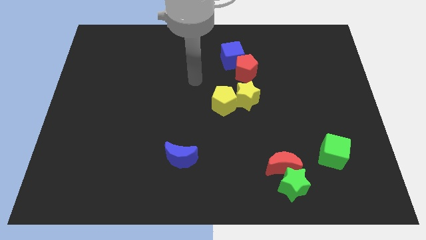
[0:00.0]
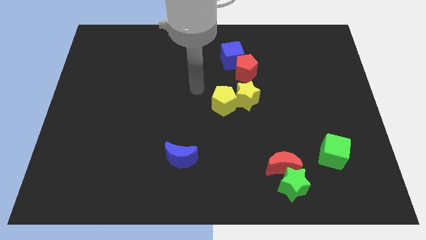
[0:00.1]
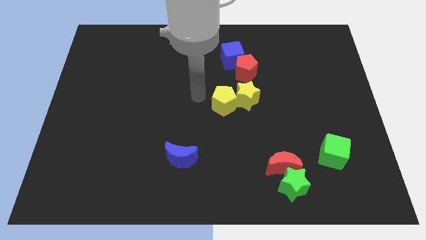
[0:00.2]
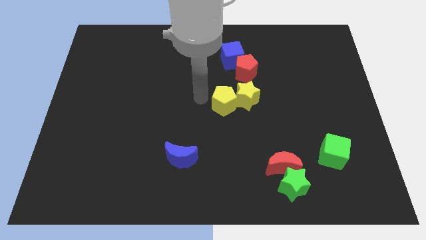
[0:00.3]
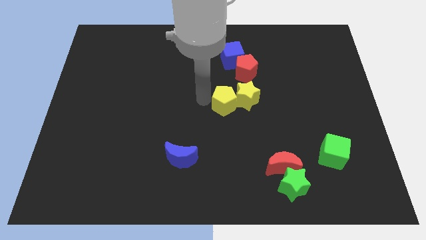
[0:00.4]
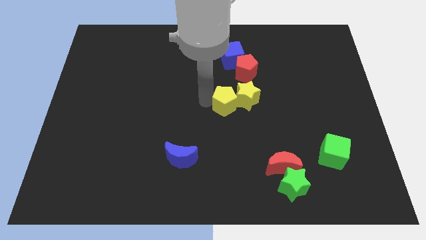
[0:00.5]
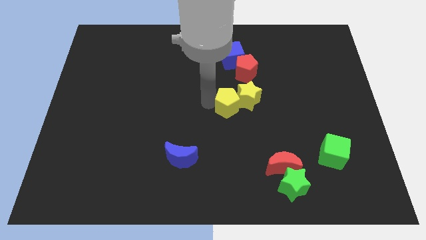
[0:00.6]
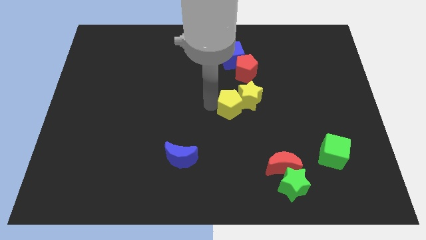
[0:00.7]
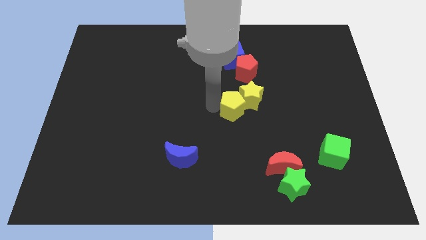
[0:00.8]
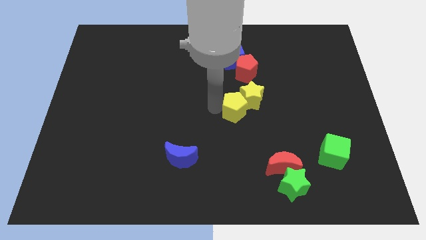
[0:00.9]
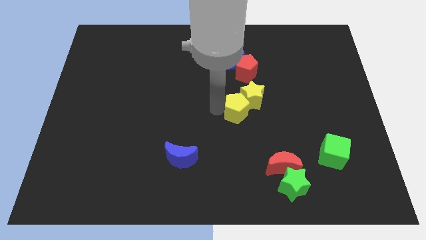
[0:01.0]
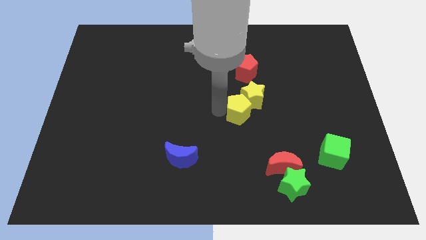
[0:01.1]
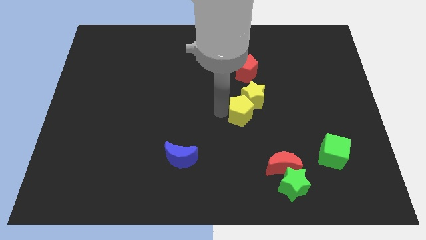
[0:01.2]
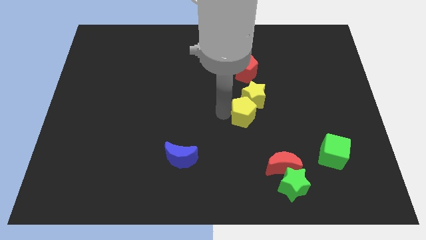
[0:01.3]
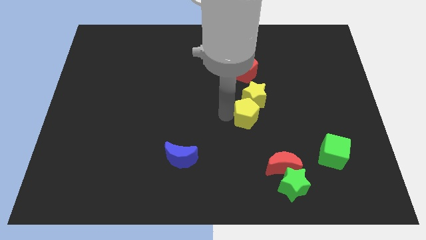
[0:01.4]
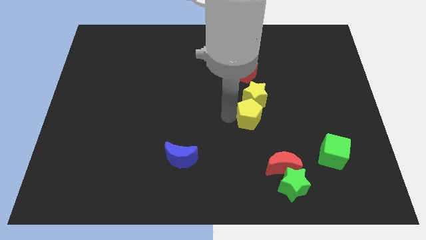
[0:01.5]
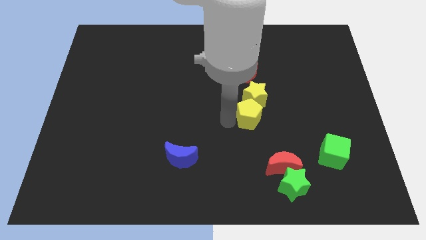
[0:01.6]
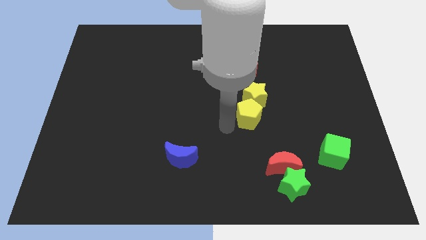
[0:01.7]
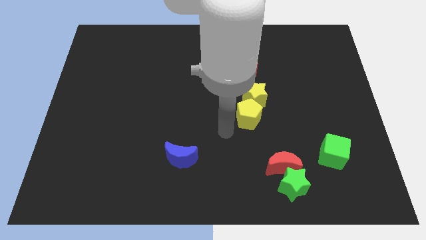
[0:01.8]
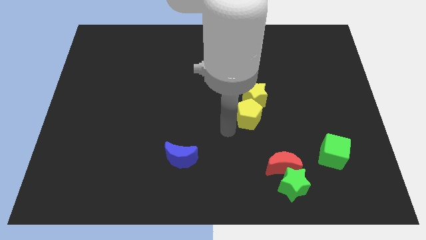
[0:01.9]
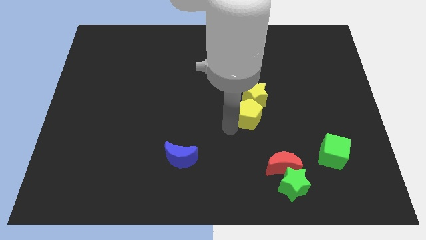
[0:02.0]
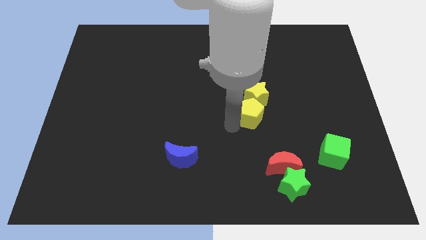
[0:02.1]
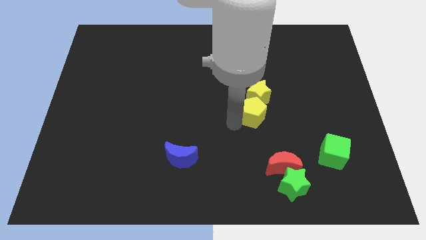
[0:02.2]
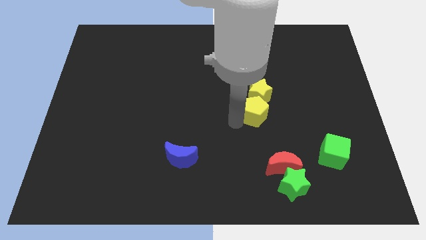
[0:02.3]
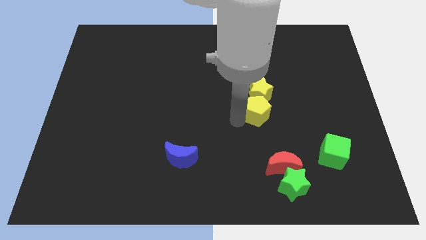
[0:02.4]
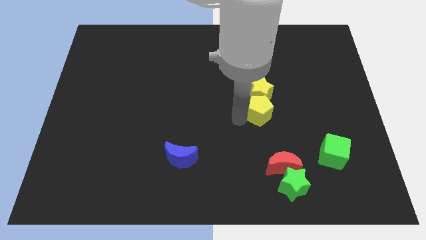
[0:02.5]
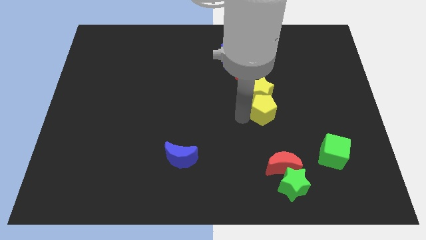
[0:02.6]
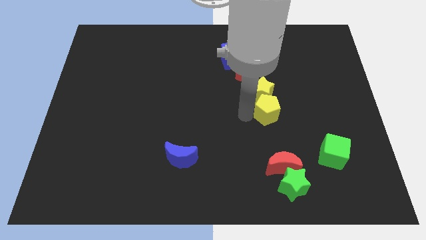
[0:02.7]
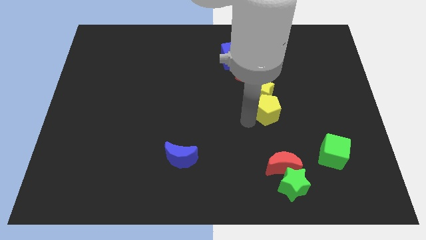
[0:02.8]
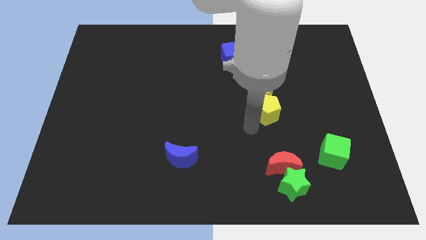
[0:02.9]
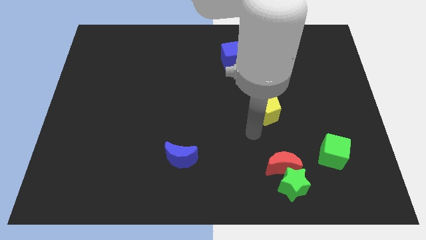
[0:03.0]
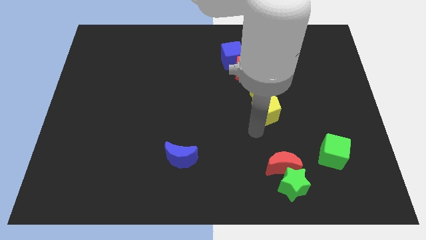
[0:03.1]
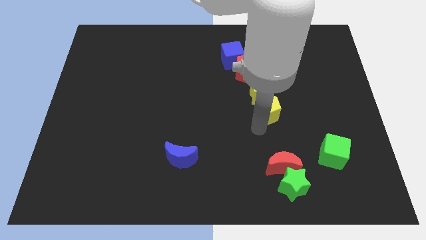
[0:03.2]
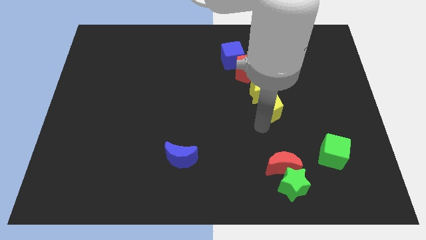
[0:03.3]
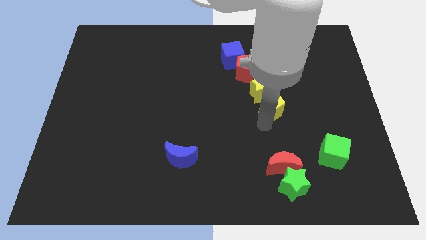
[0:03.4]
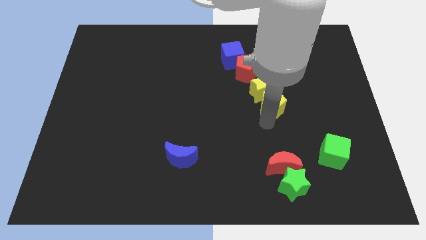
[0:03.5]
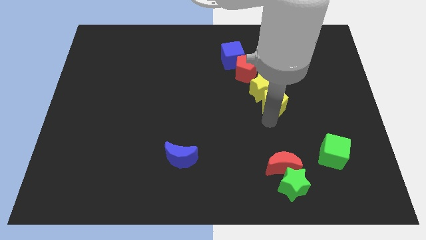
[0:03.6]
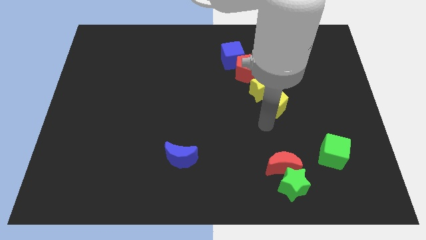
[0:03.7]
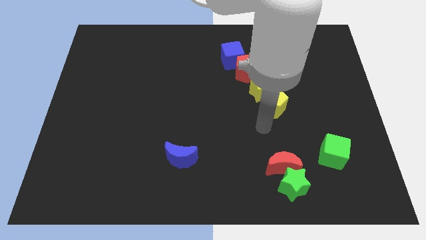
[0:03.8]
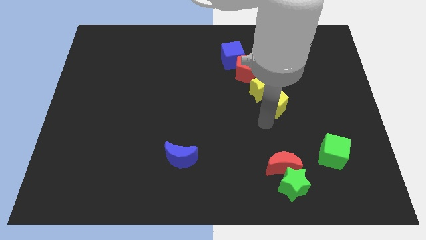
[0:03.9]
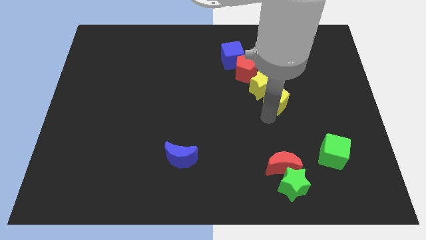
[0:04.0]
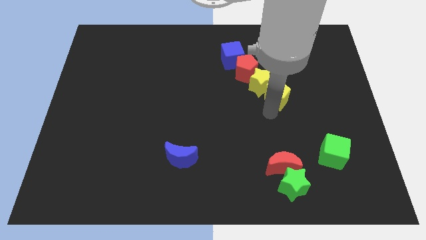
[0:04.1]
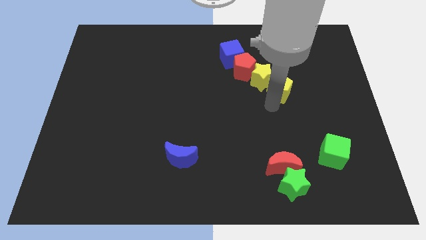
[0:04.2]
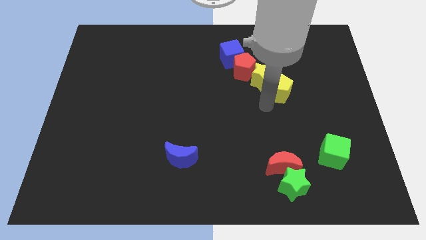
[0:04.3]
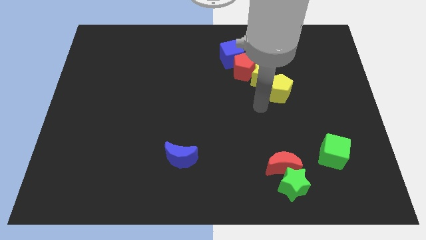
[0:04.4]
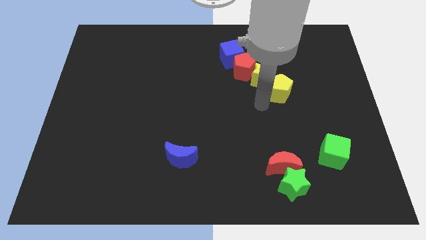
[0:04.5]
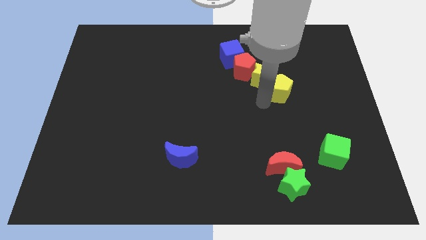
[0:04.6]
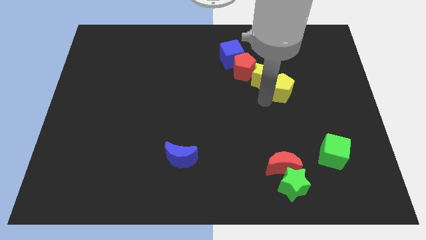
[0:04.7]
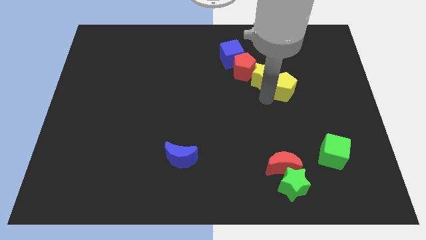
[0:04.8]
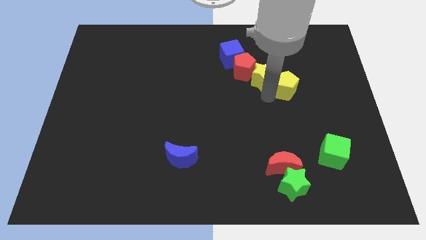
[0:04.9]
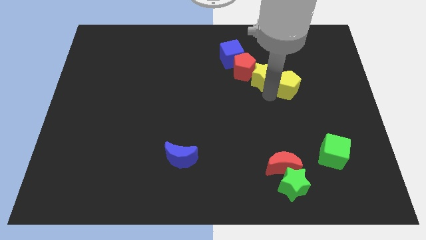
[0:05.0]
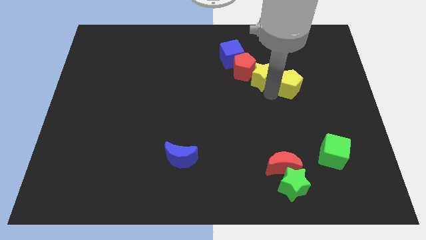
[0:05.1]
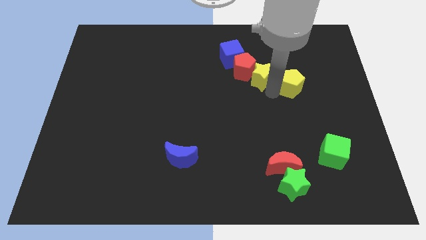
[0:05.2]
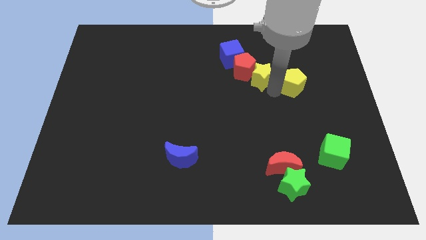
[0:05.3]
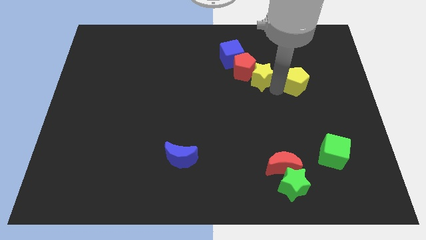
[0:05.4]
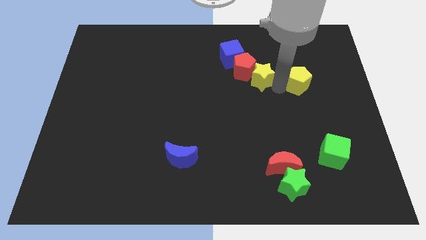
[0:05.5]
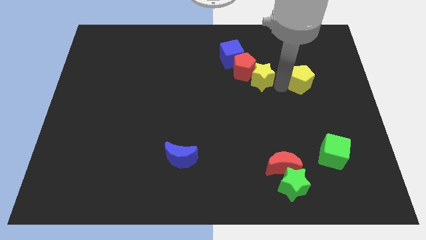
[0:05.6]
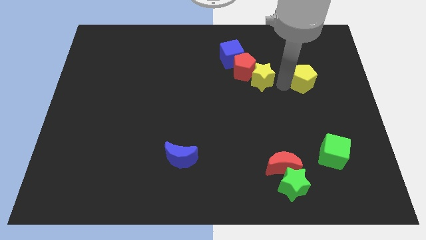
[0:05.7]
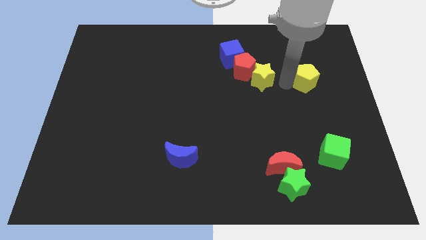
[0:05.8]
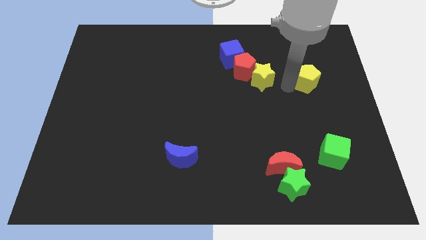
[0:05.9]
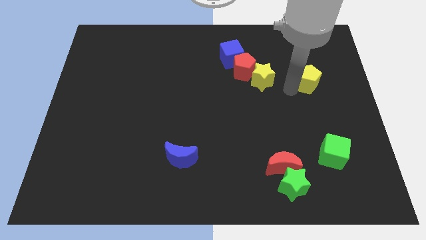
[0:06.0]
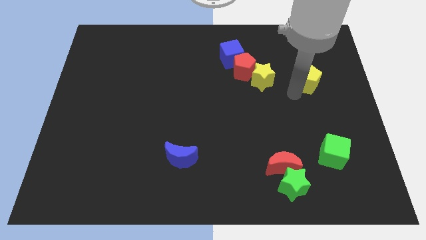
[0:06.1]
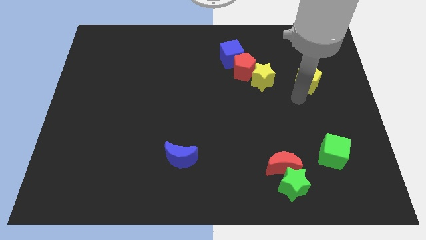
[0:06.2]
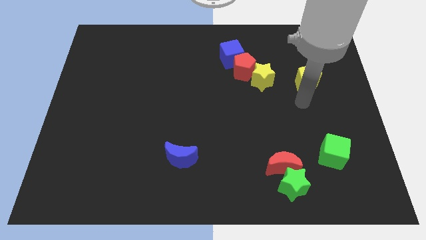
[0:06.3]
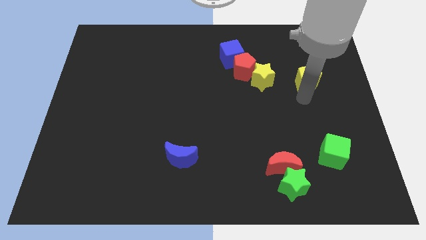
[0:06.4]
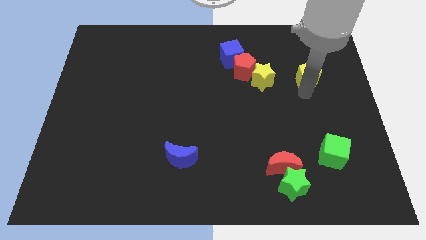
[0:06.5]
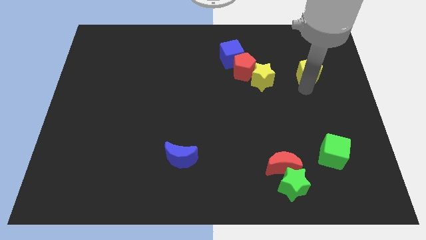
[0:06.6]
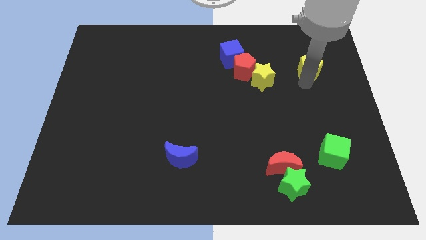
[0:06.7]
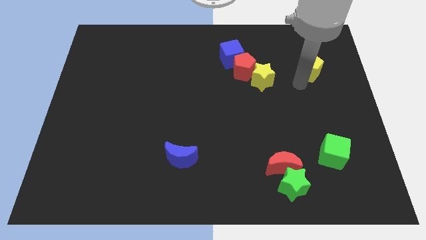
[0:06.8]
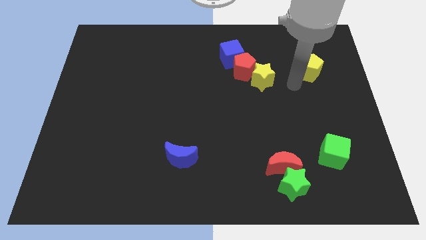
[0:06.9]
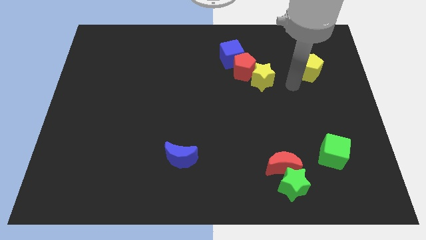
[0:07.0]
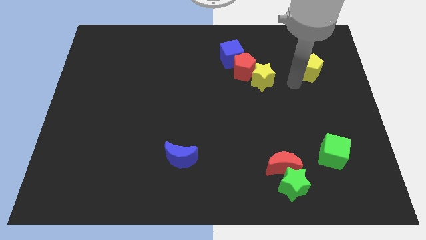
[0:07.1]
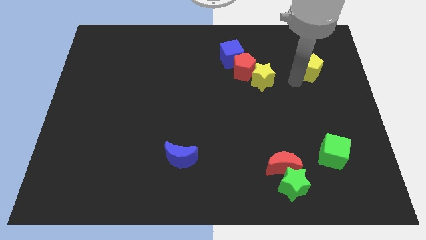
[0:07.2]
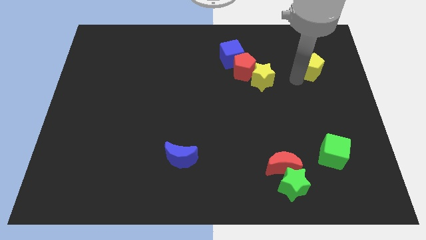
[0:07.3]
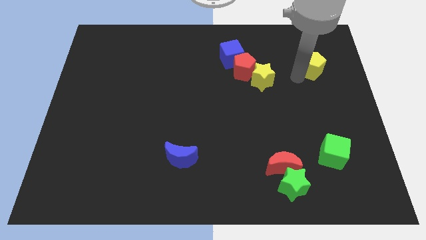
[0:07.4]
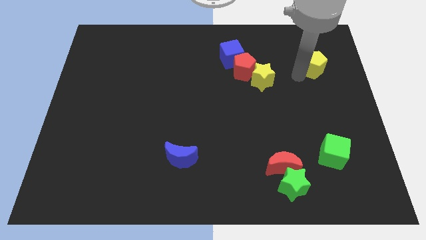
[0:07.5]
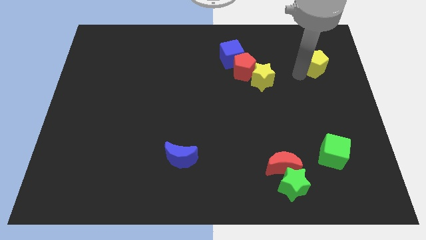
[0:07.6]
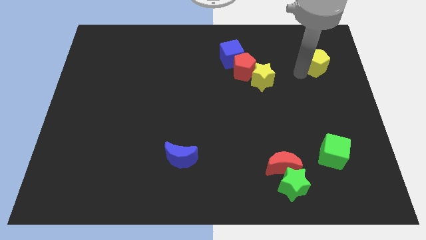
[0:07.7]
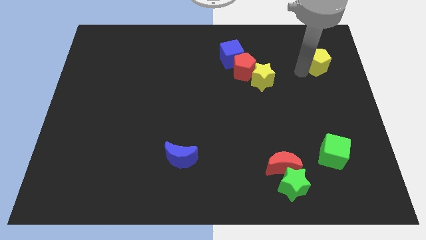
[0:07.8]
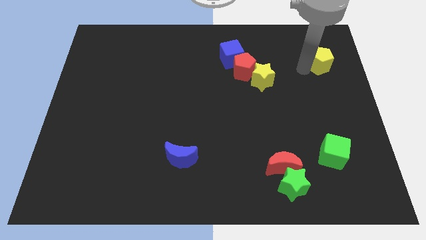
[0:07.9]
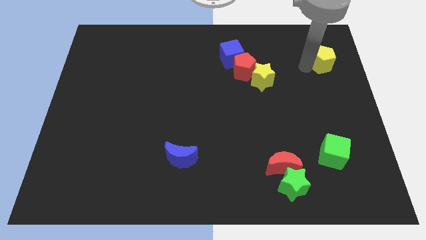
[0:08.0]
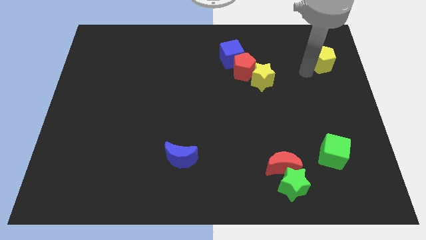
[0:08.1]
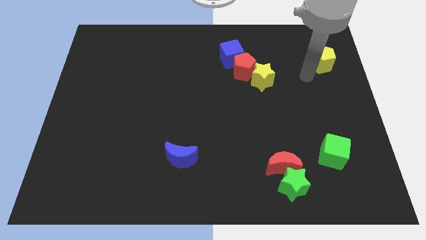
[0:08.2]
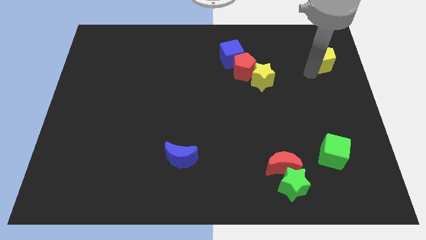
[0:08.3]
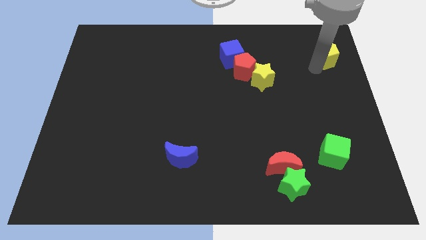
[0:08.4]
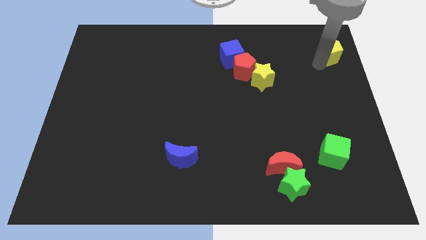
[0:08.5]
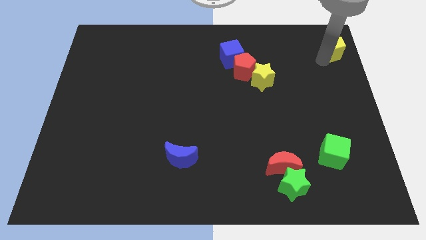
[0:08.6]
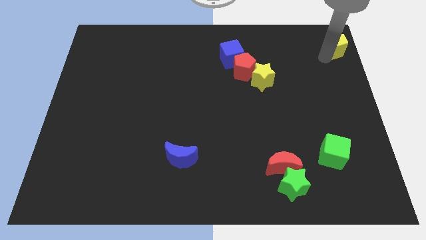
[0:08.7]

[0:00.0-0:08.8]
move the yellow pentagon to the top right of the board
